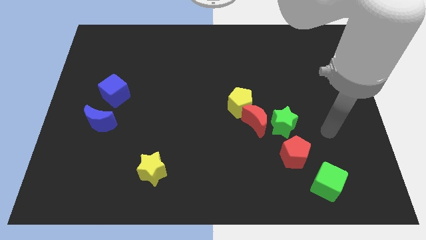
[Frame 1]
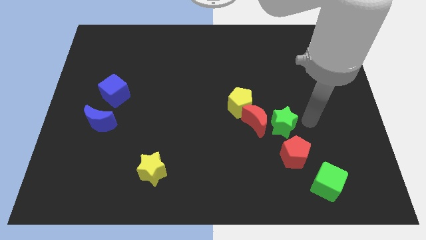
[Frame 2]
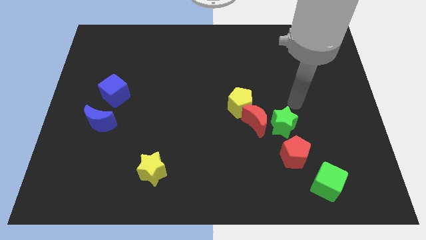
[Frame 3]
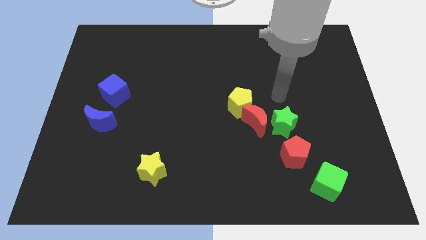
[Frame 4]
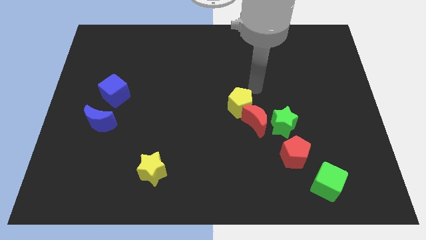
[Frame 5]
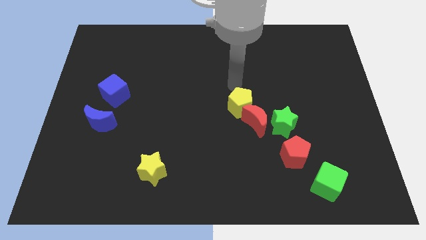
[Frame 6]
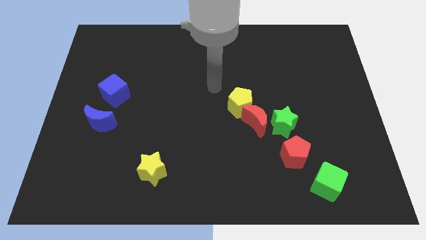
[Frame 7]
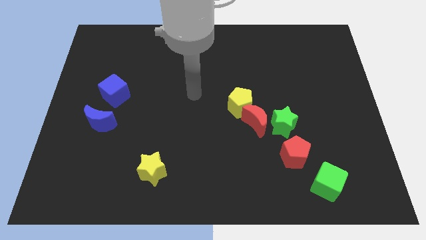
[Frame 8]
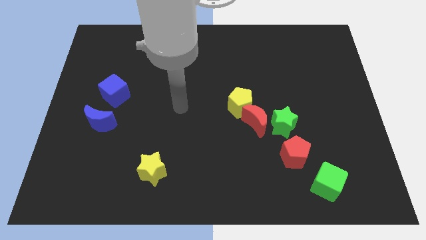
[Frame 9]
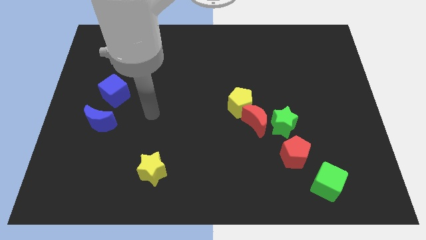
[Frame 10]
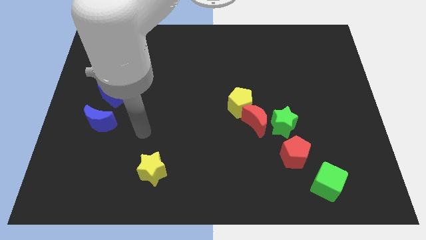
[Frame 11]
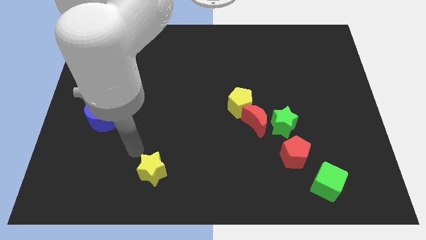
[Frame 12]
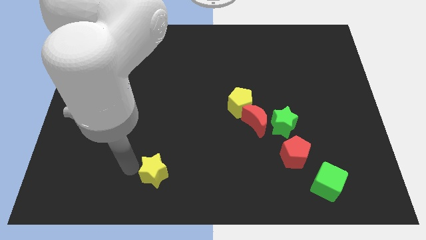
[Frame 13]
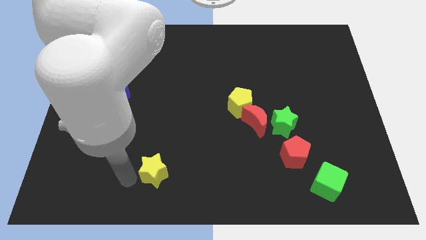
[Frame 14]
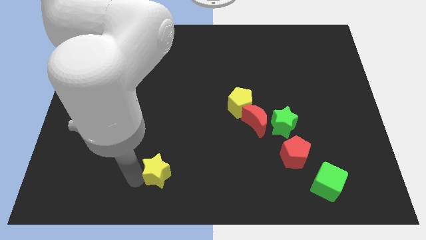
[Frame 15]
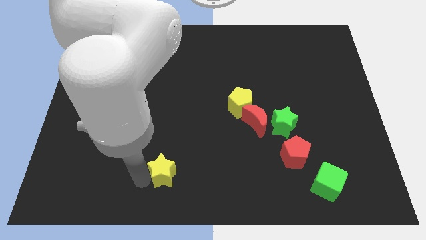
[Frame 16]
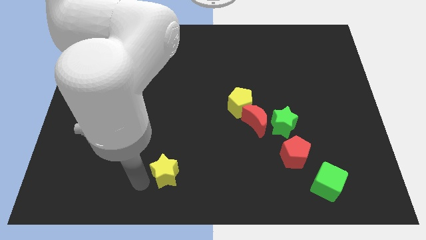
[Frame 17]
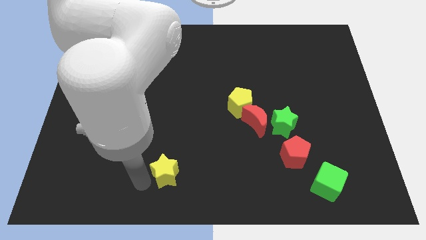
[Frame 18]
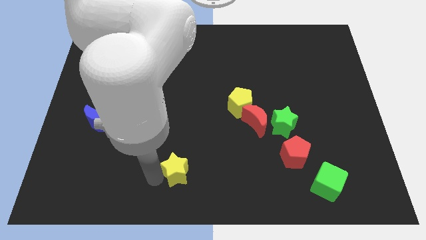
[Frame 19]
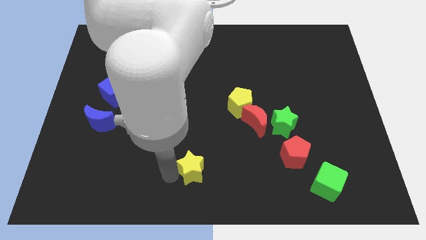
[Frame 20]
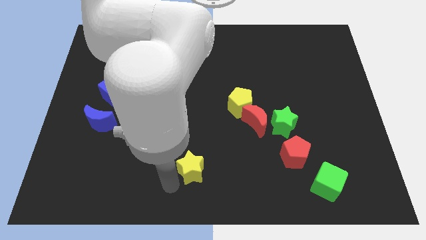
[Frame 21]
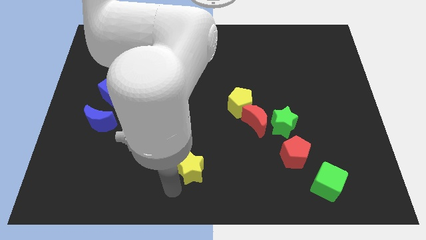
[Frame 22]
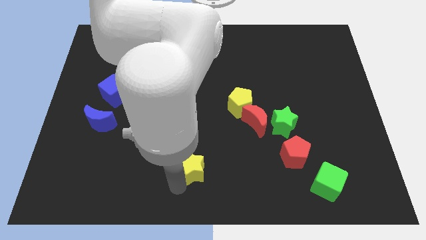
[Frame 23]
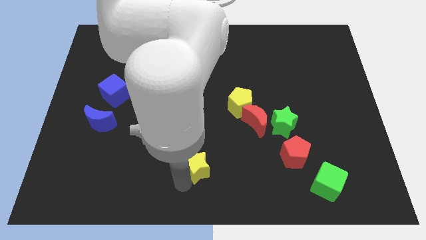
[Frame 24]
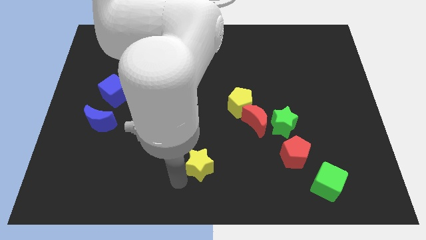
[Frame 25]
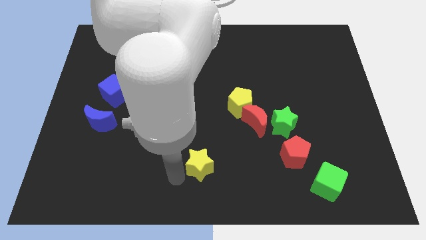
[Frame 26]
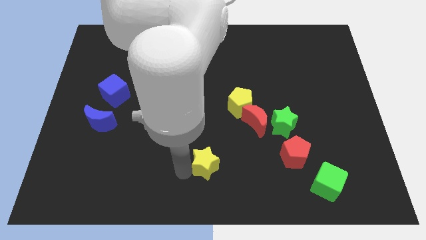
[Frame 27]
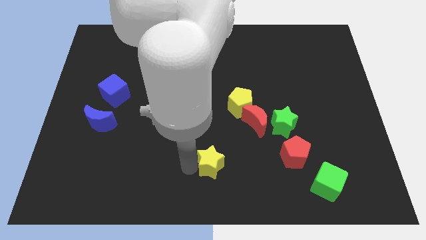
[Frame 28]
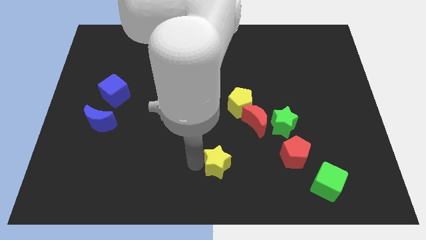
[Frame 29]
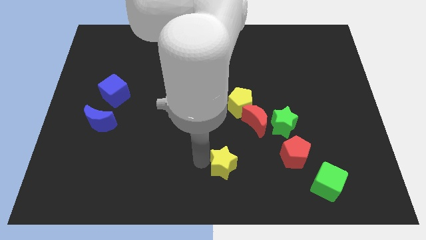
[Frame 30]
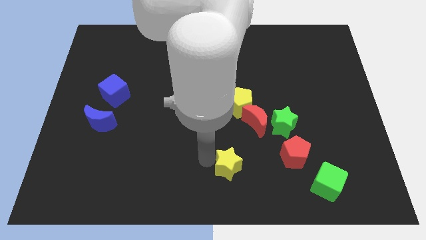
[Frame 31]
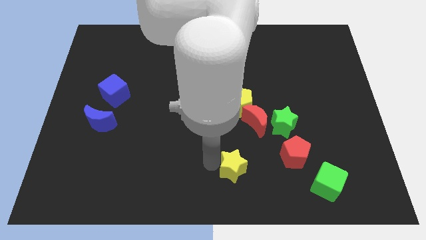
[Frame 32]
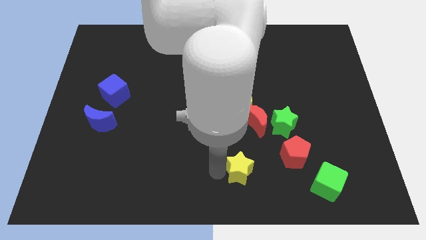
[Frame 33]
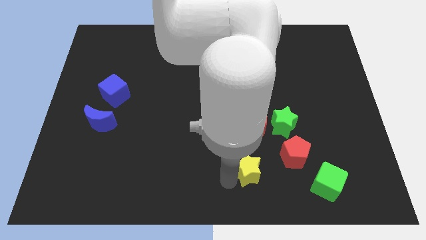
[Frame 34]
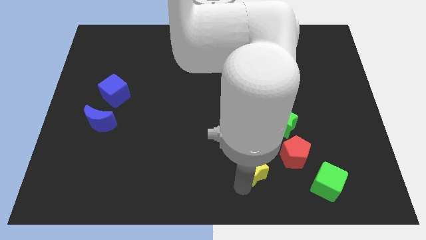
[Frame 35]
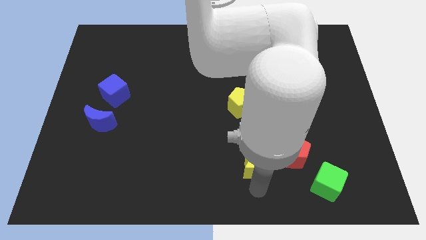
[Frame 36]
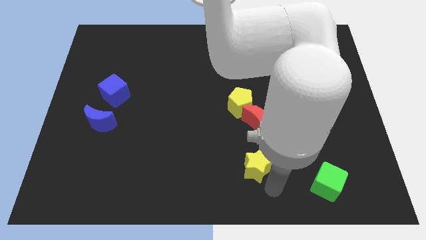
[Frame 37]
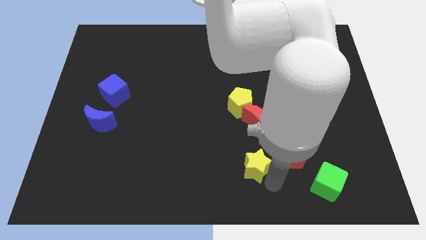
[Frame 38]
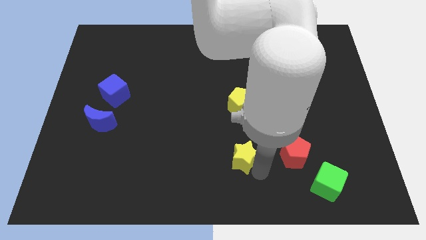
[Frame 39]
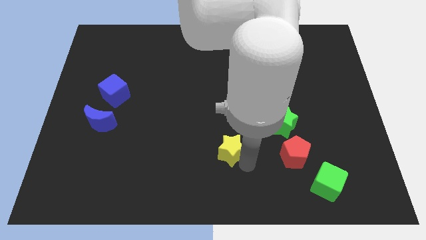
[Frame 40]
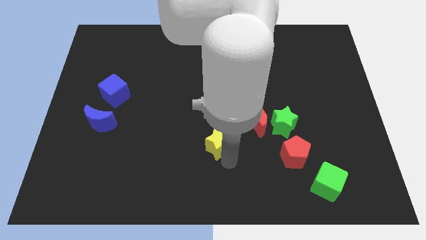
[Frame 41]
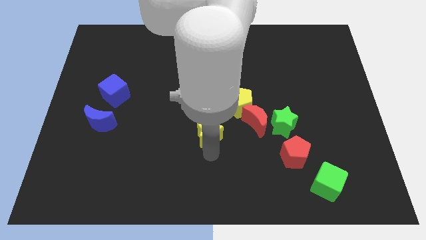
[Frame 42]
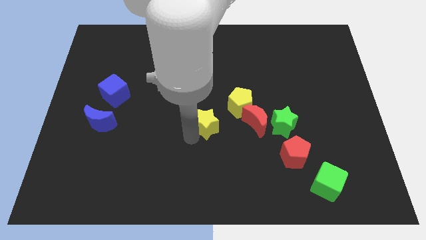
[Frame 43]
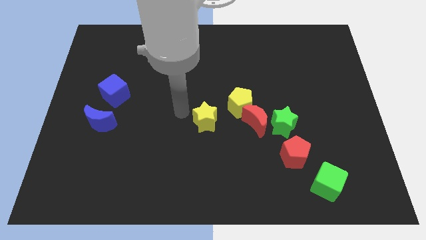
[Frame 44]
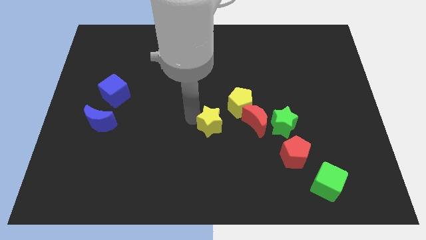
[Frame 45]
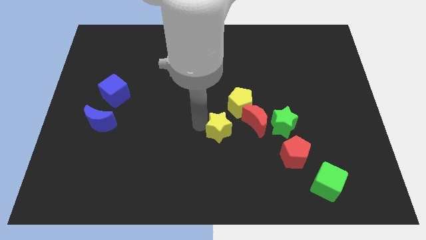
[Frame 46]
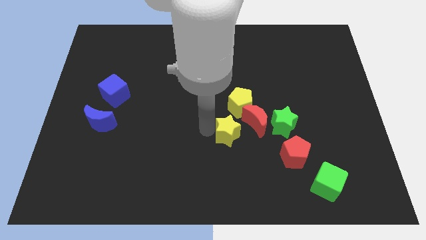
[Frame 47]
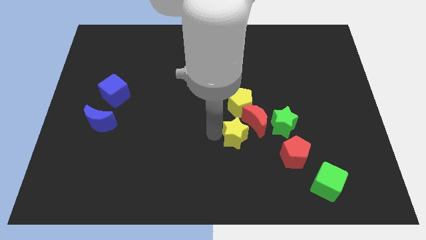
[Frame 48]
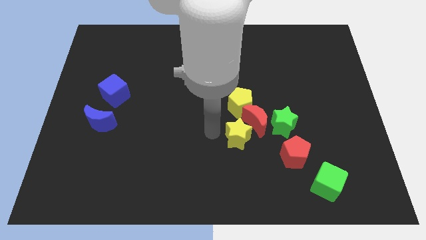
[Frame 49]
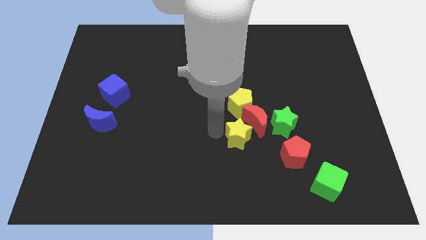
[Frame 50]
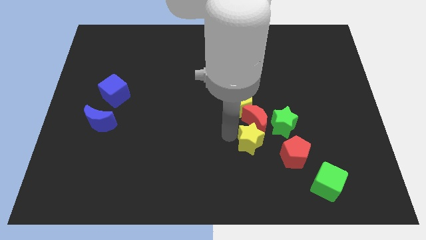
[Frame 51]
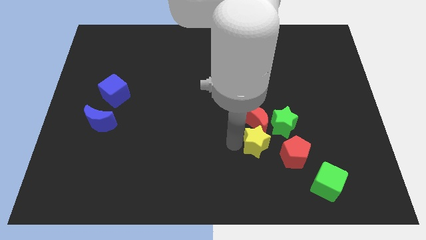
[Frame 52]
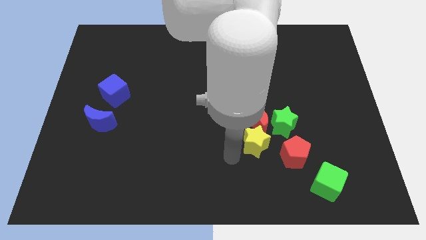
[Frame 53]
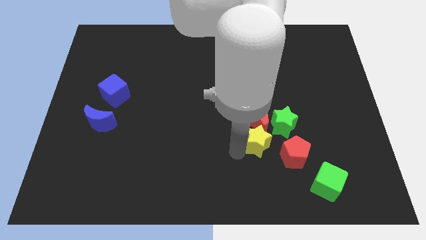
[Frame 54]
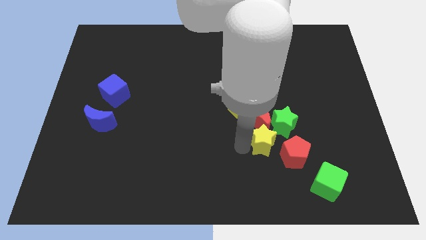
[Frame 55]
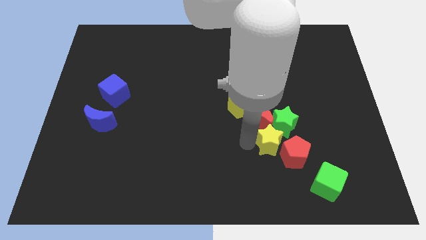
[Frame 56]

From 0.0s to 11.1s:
move the yellow star towards the green star

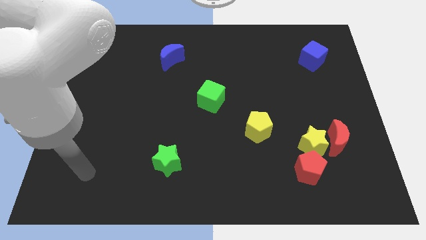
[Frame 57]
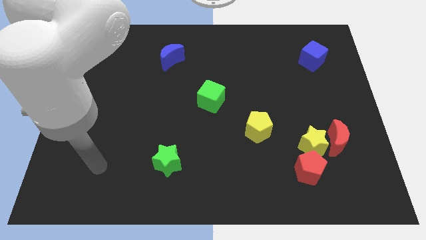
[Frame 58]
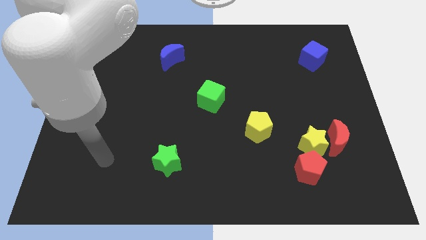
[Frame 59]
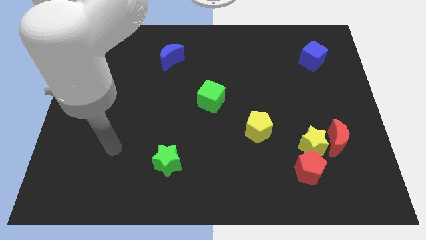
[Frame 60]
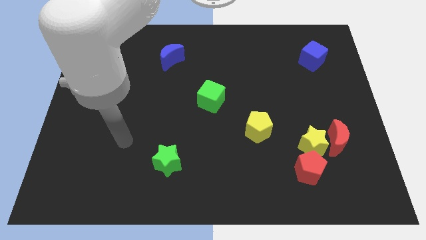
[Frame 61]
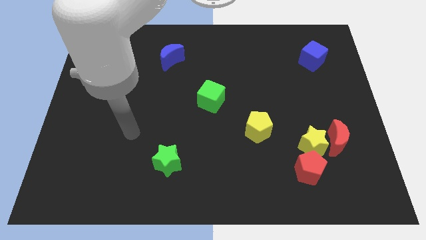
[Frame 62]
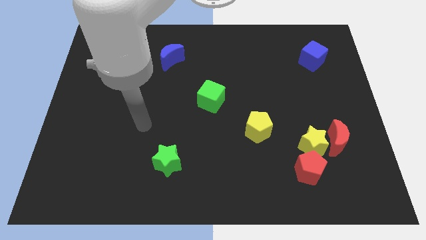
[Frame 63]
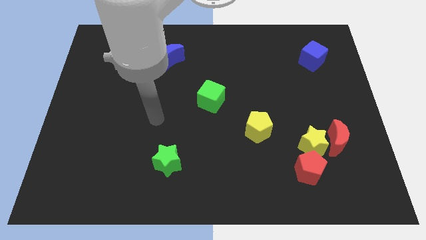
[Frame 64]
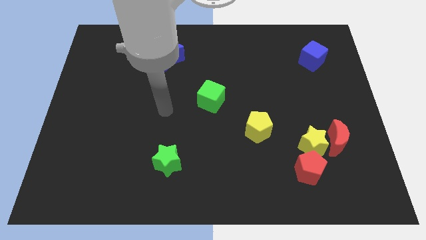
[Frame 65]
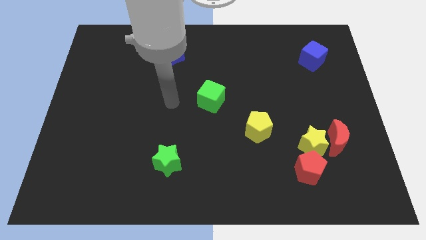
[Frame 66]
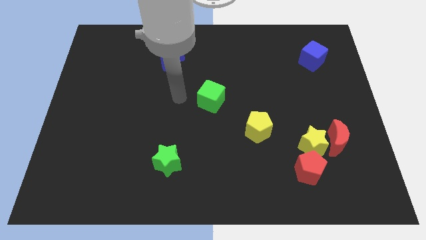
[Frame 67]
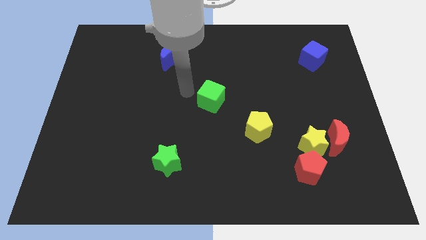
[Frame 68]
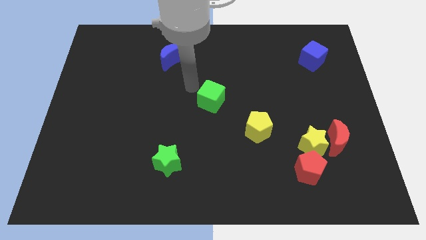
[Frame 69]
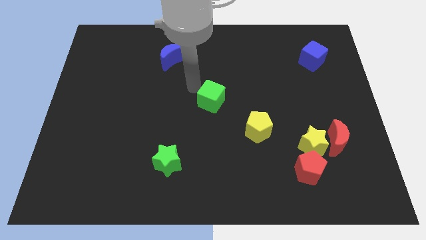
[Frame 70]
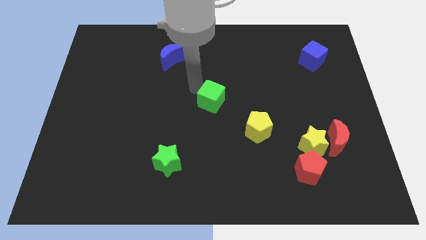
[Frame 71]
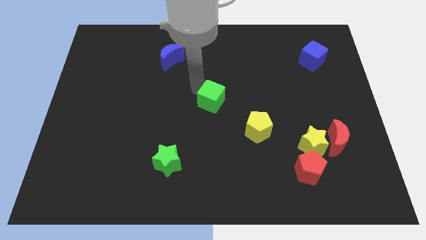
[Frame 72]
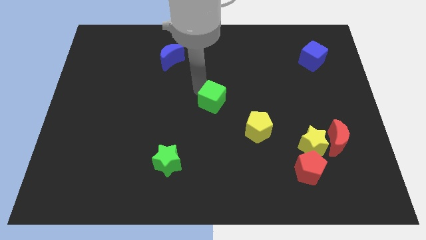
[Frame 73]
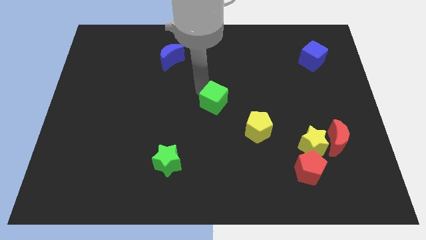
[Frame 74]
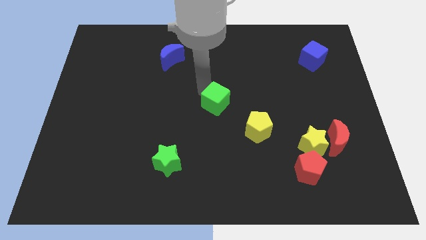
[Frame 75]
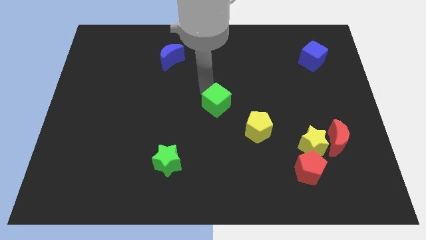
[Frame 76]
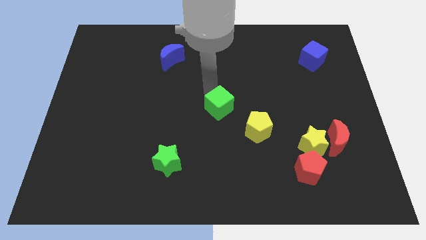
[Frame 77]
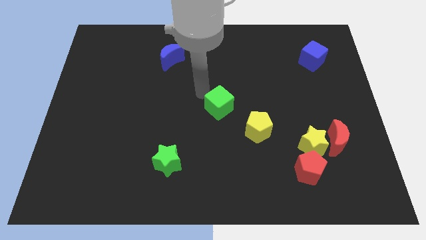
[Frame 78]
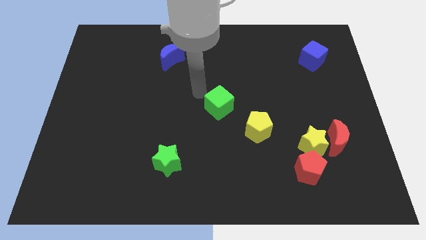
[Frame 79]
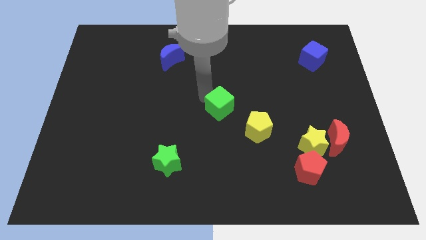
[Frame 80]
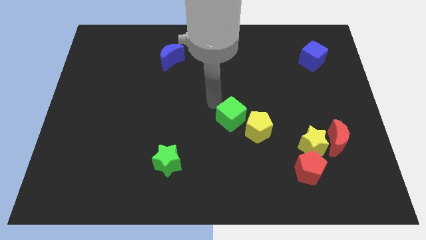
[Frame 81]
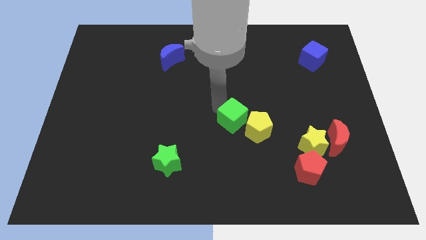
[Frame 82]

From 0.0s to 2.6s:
move the green cube close to the yellow pentagon
